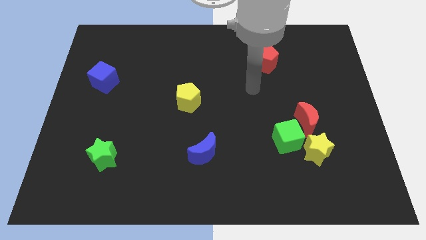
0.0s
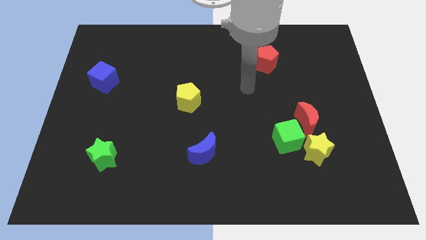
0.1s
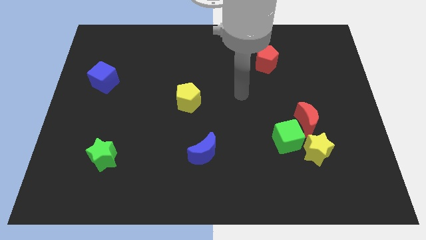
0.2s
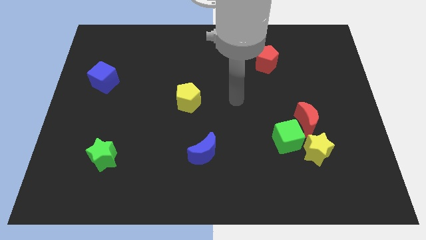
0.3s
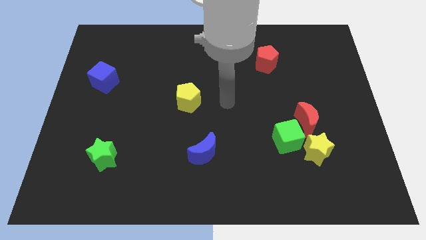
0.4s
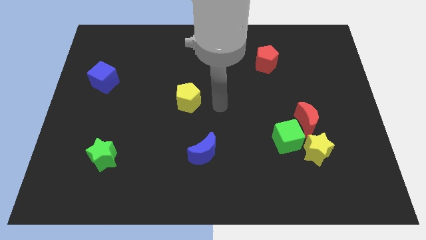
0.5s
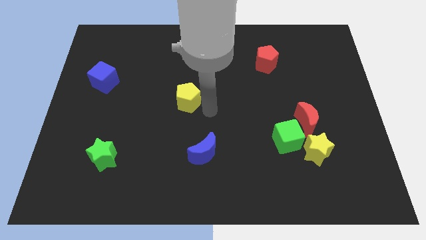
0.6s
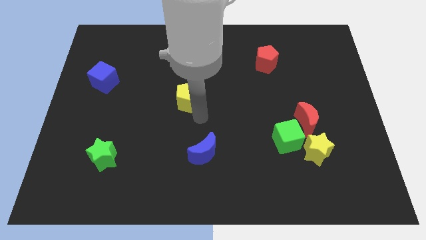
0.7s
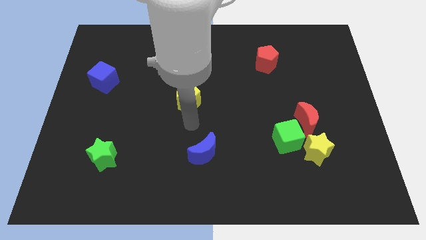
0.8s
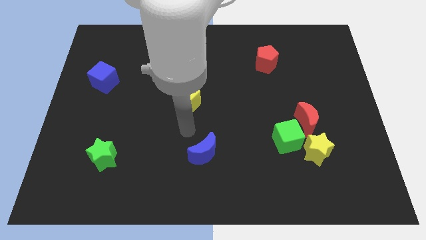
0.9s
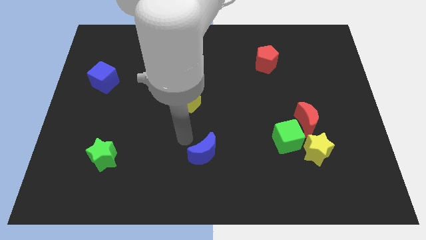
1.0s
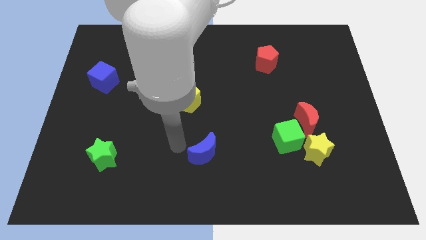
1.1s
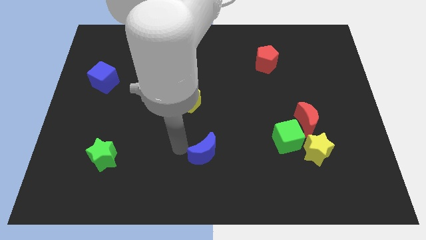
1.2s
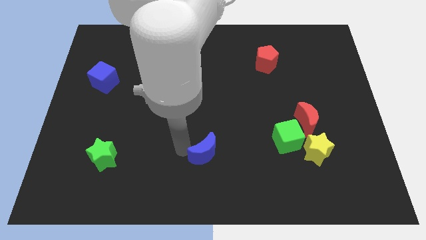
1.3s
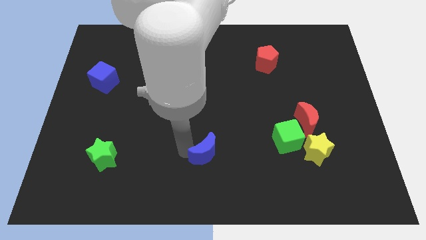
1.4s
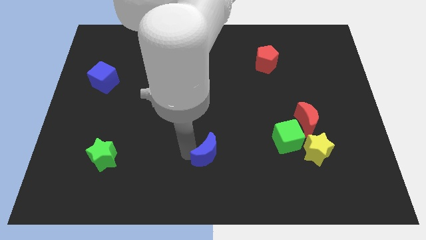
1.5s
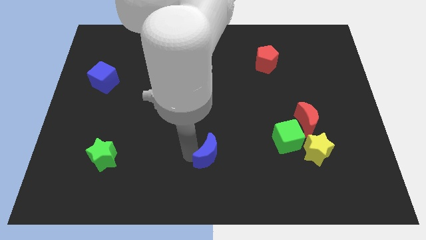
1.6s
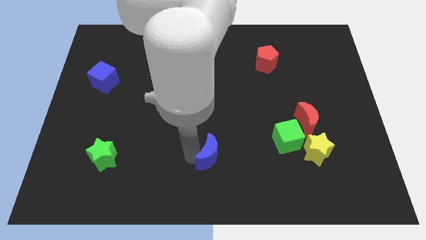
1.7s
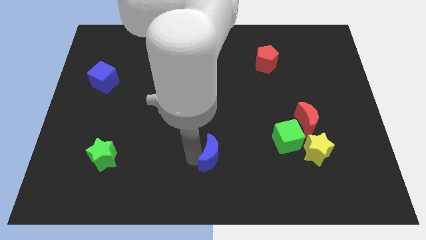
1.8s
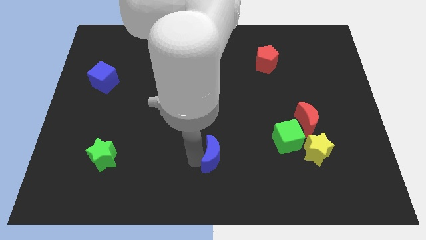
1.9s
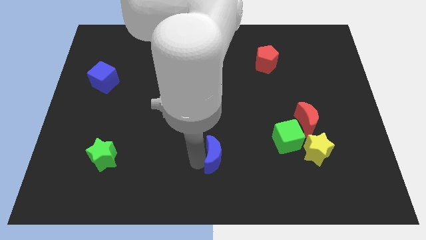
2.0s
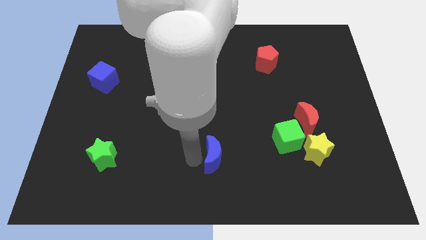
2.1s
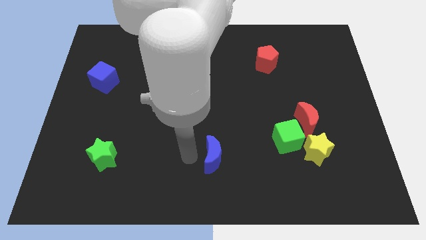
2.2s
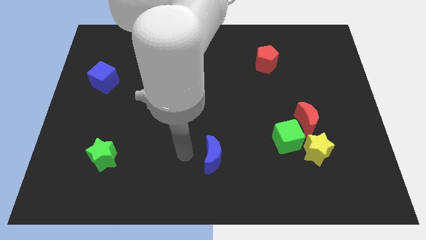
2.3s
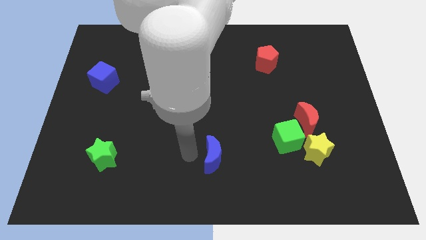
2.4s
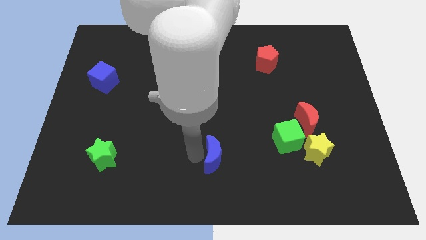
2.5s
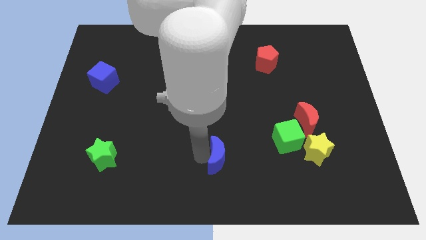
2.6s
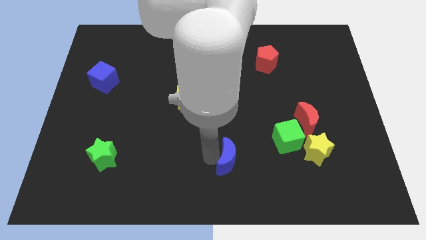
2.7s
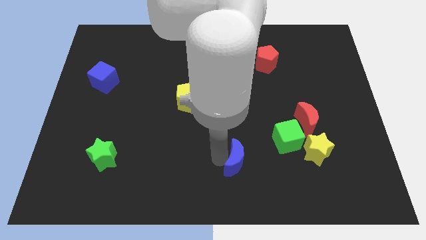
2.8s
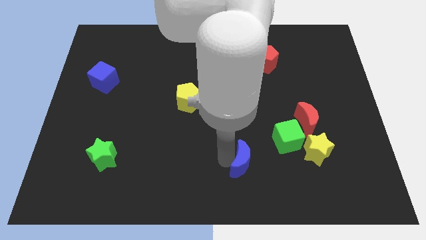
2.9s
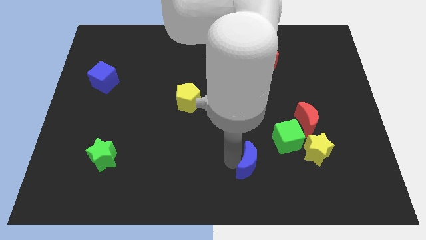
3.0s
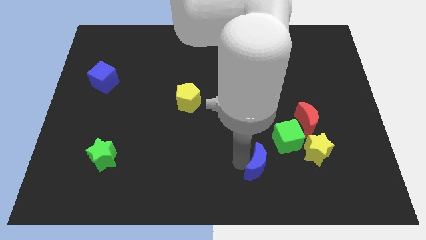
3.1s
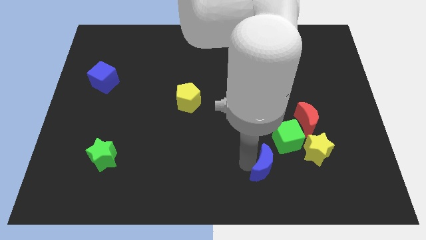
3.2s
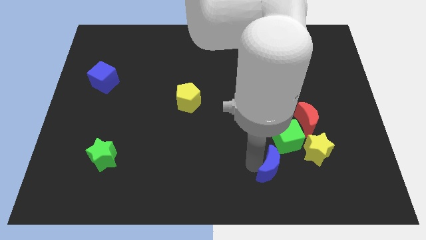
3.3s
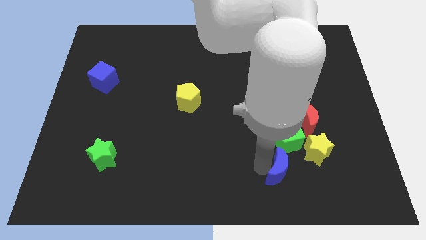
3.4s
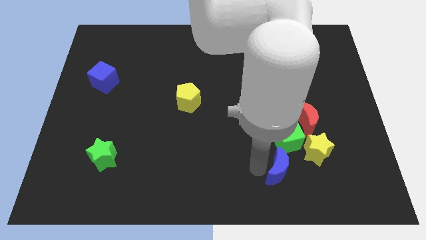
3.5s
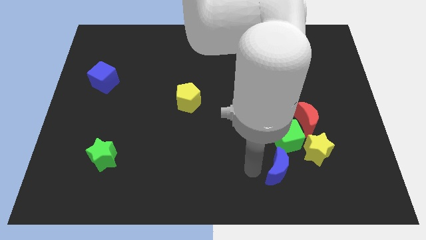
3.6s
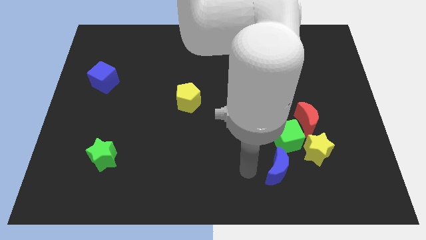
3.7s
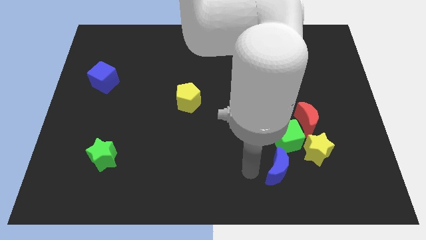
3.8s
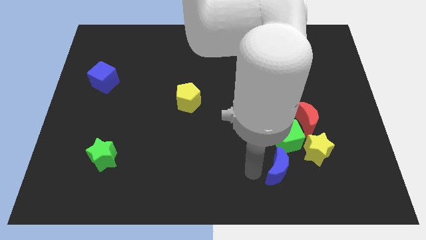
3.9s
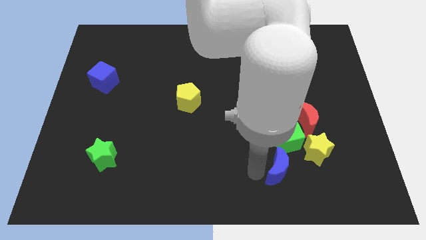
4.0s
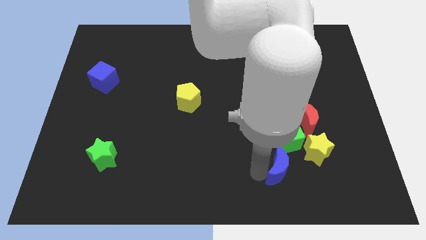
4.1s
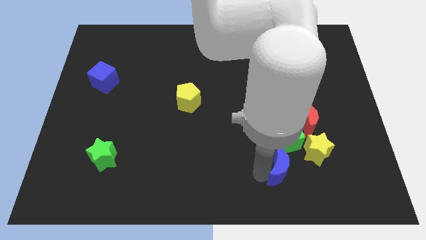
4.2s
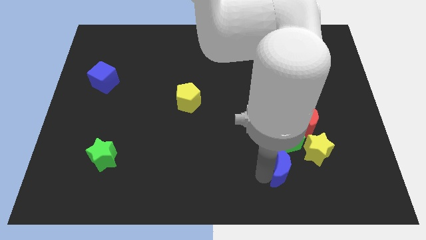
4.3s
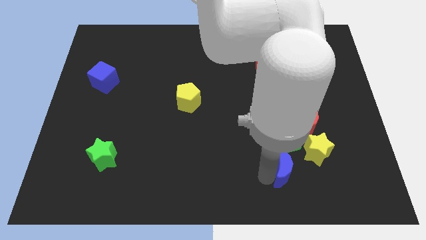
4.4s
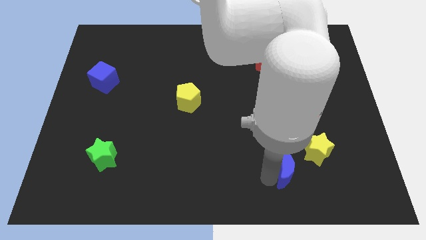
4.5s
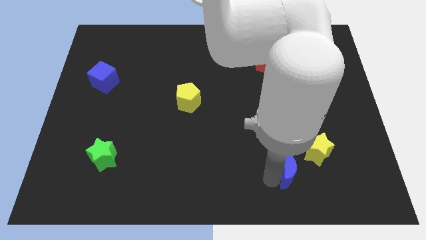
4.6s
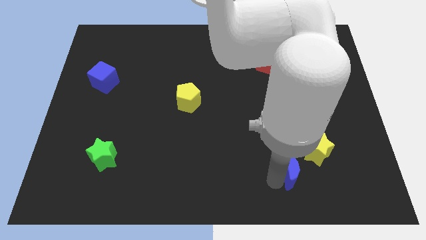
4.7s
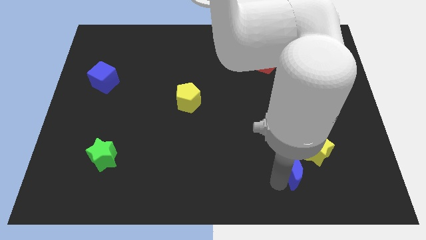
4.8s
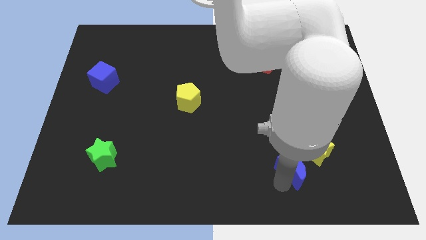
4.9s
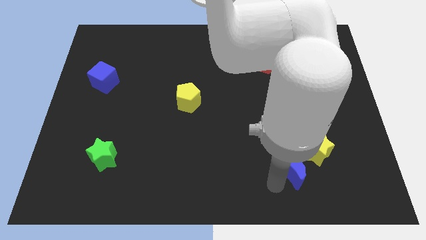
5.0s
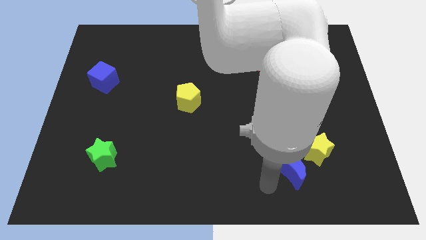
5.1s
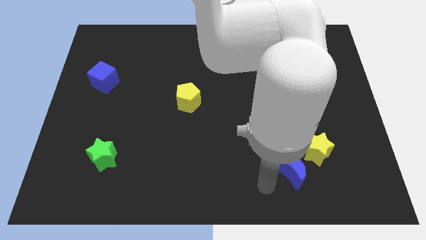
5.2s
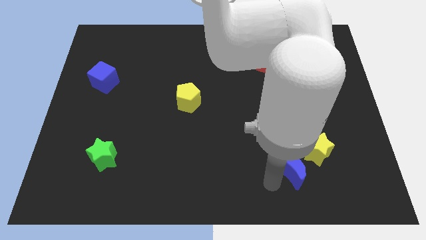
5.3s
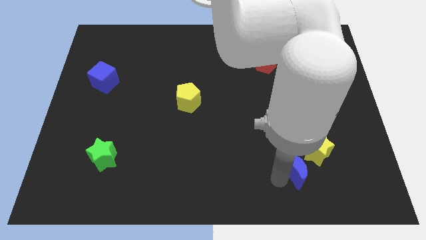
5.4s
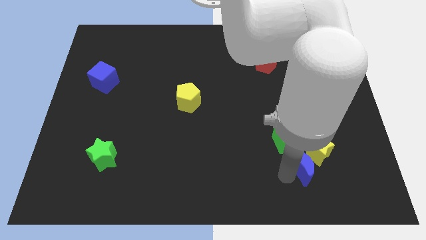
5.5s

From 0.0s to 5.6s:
move the blue moon to the bottom right side of the green cube
